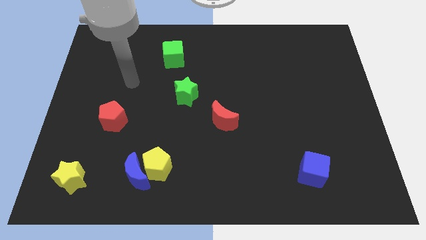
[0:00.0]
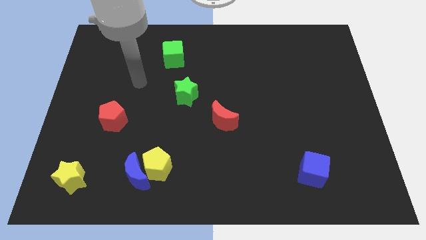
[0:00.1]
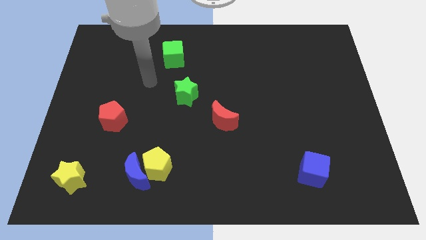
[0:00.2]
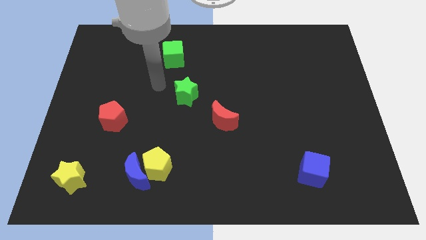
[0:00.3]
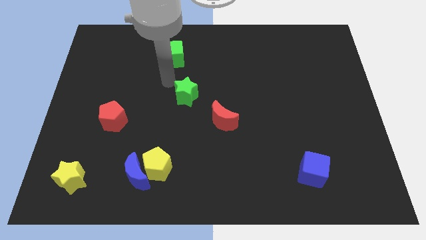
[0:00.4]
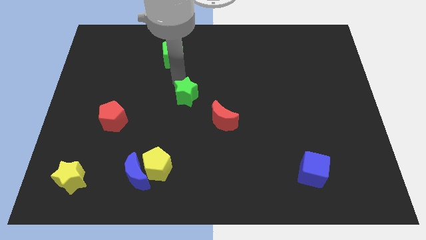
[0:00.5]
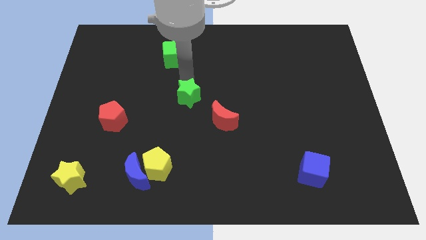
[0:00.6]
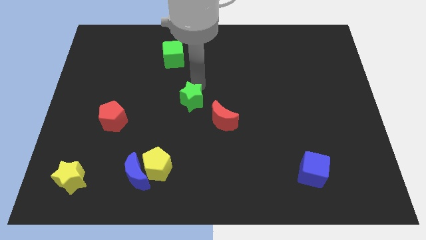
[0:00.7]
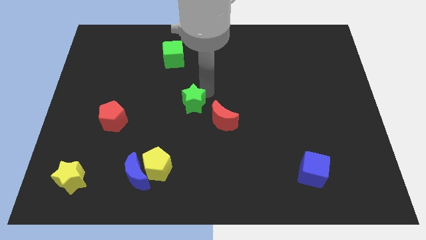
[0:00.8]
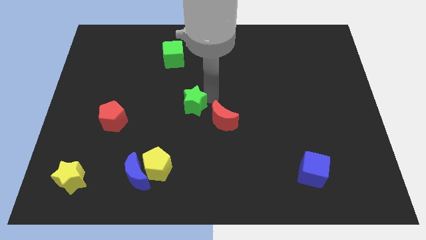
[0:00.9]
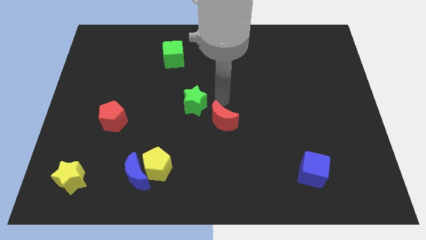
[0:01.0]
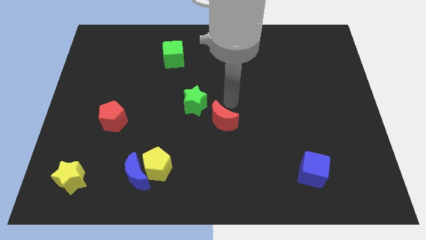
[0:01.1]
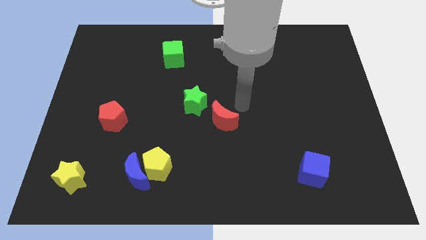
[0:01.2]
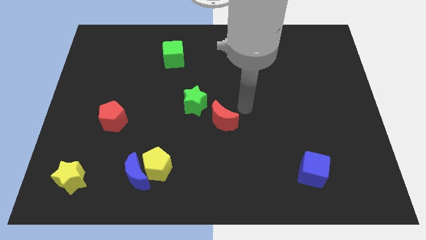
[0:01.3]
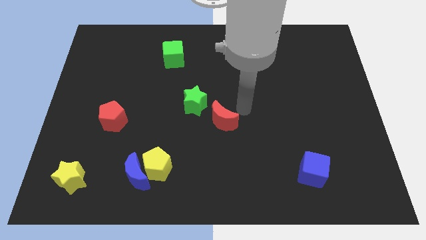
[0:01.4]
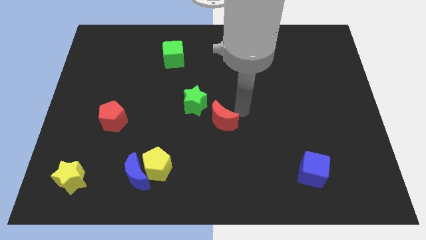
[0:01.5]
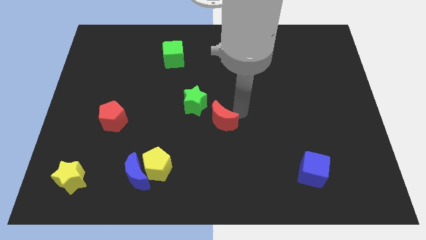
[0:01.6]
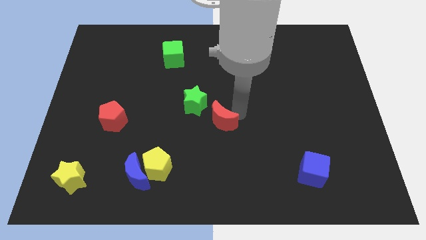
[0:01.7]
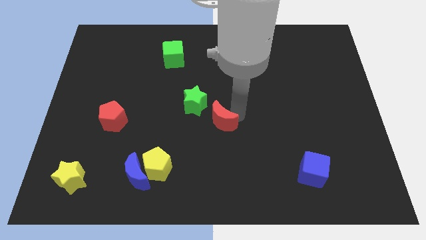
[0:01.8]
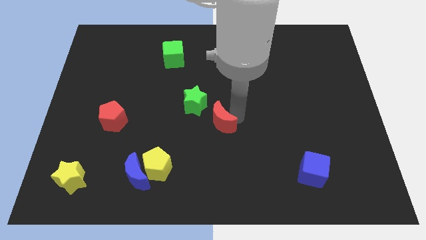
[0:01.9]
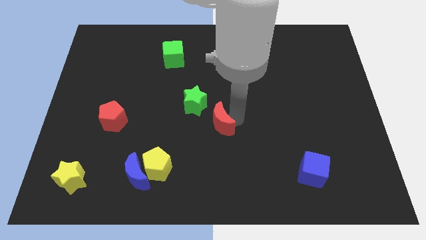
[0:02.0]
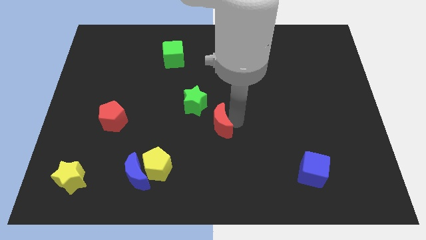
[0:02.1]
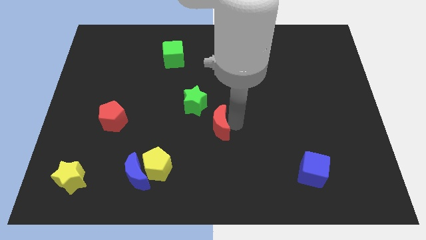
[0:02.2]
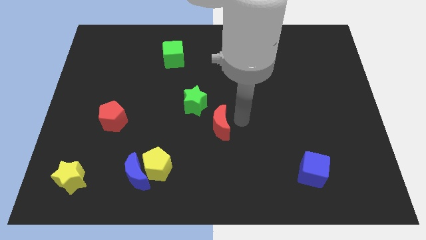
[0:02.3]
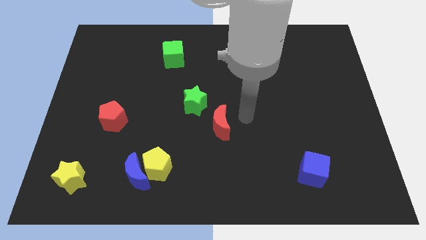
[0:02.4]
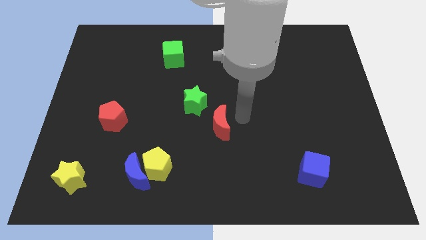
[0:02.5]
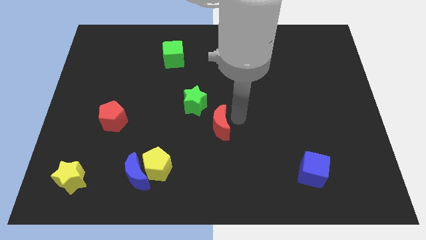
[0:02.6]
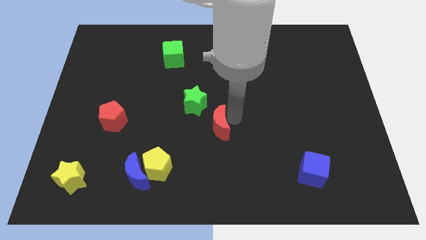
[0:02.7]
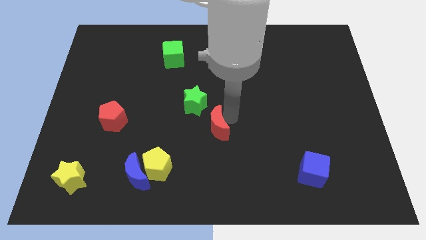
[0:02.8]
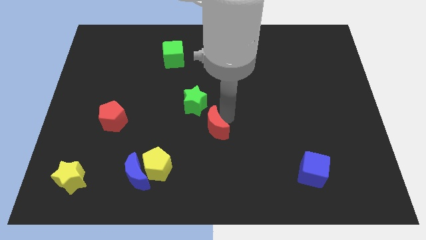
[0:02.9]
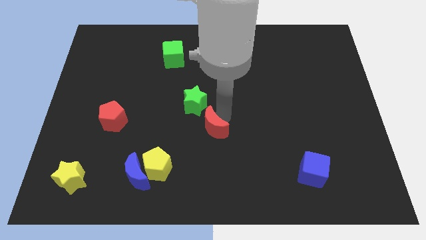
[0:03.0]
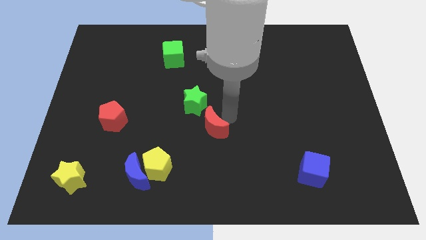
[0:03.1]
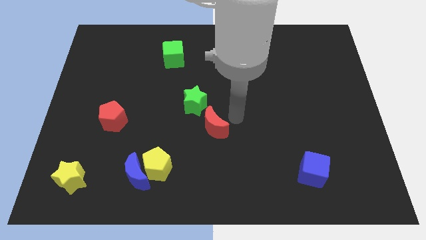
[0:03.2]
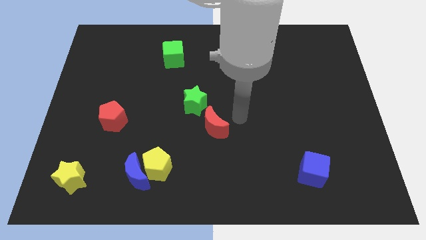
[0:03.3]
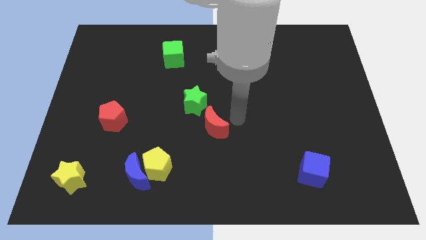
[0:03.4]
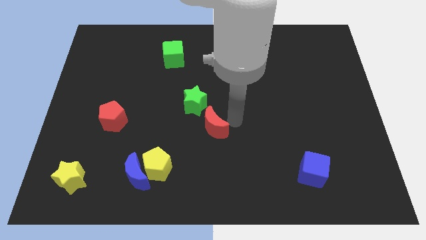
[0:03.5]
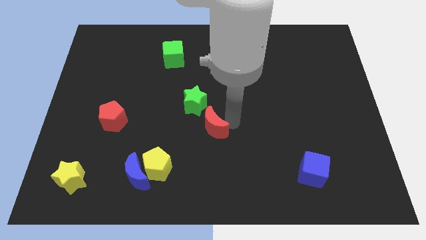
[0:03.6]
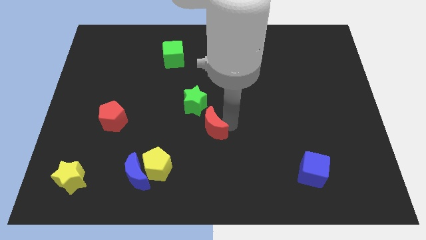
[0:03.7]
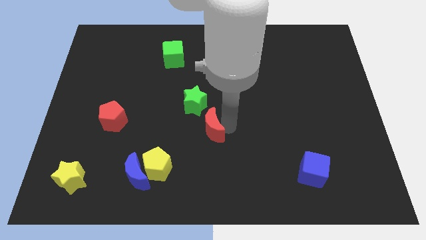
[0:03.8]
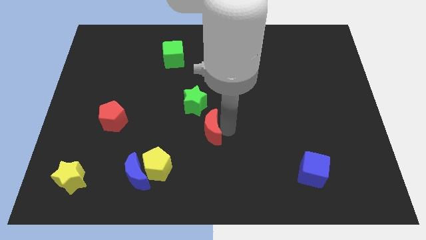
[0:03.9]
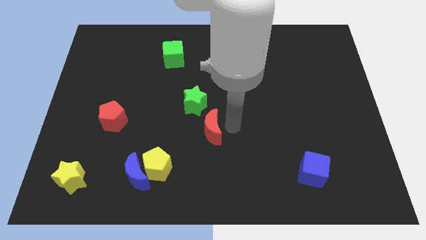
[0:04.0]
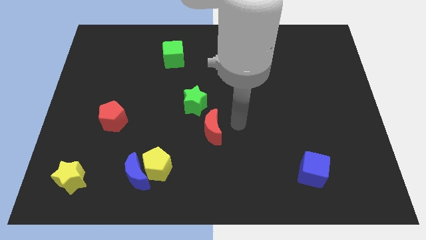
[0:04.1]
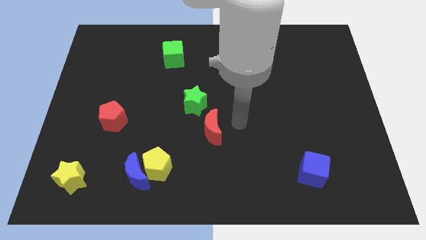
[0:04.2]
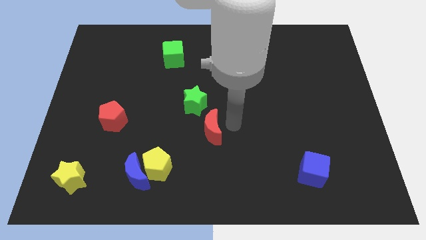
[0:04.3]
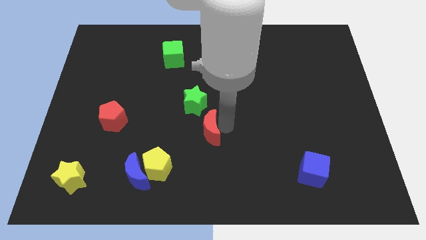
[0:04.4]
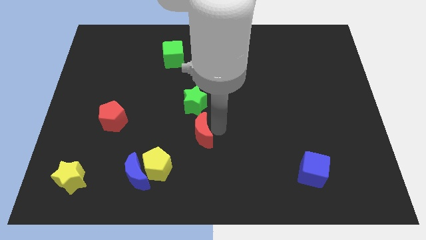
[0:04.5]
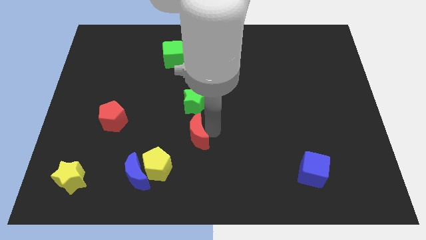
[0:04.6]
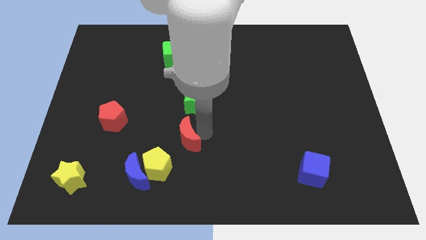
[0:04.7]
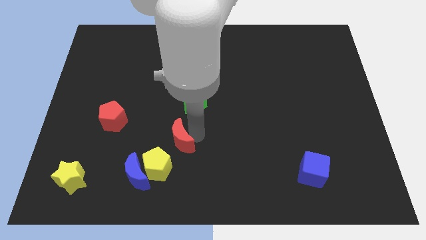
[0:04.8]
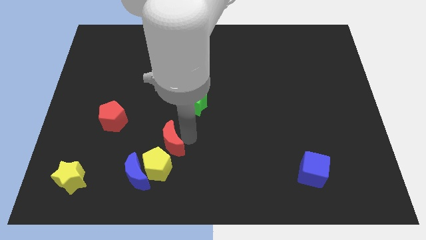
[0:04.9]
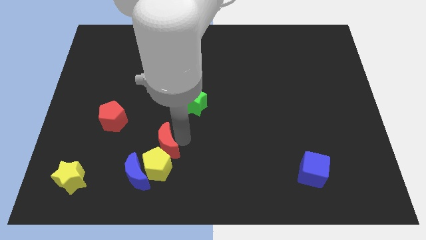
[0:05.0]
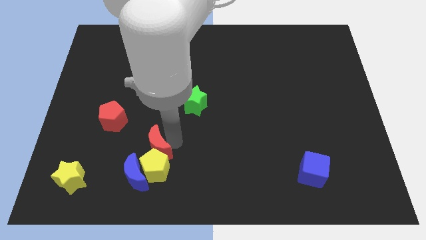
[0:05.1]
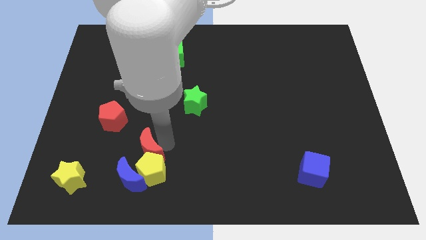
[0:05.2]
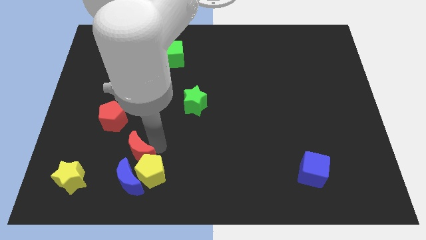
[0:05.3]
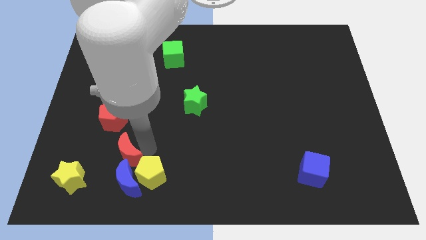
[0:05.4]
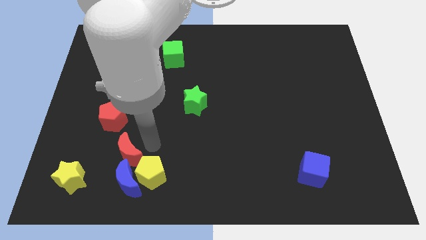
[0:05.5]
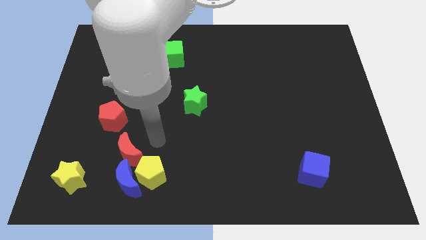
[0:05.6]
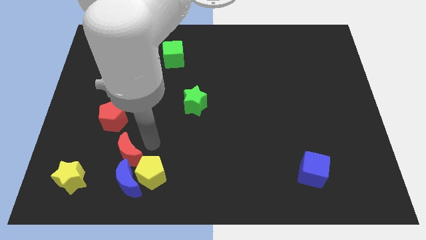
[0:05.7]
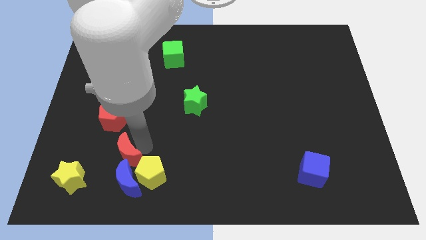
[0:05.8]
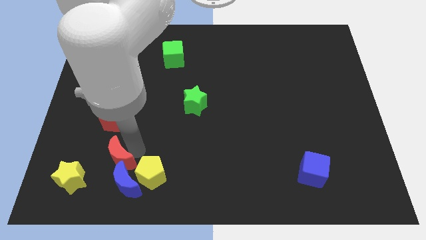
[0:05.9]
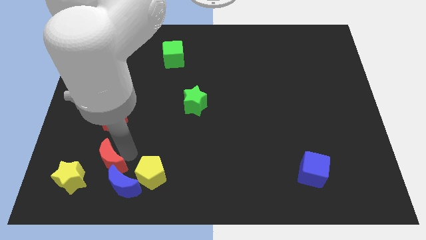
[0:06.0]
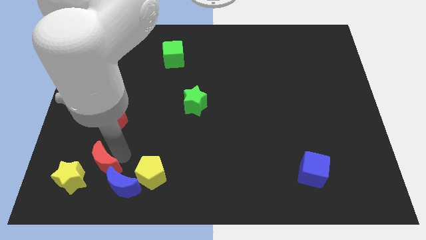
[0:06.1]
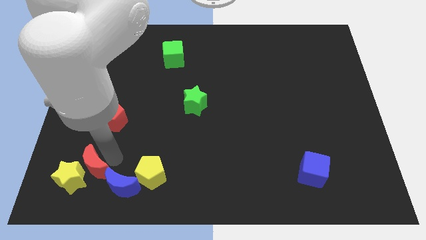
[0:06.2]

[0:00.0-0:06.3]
put the red moon towards the yellow star
